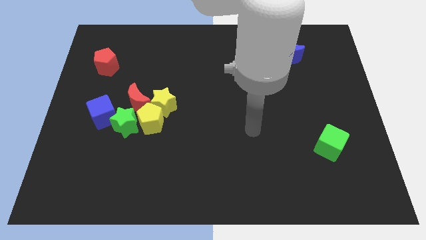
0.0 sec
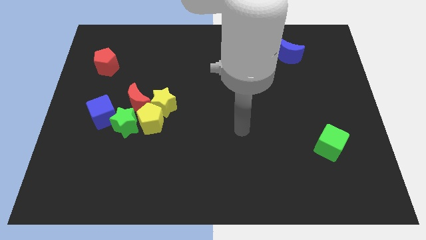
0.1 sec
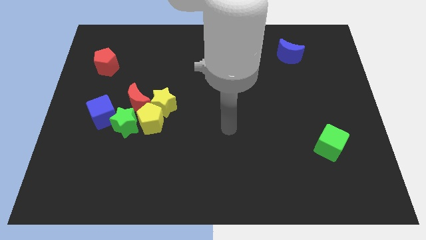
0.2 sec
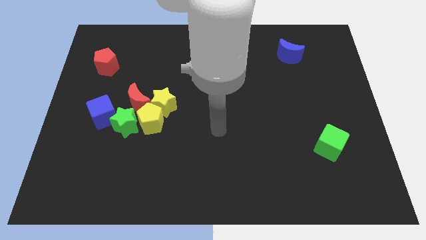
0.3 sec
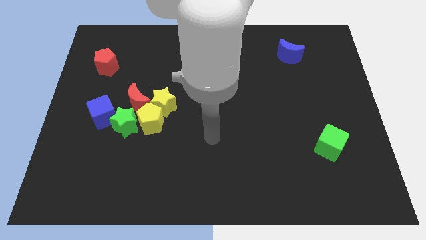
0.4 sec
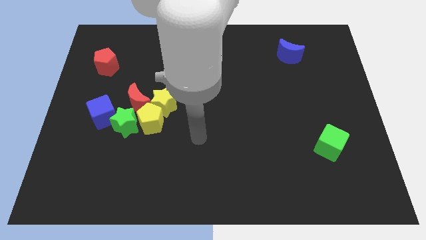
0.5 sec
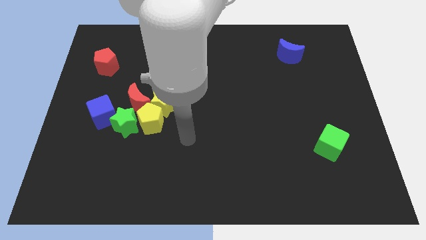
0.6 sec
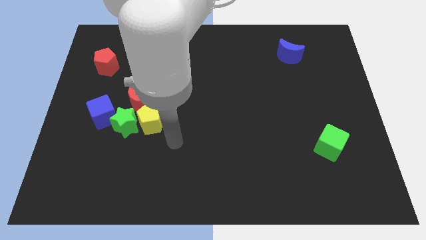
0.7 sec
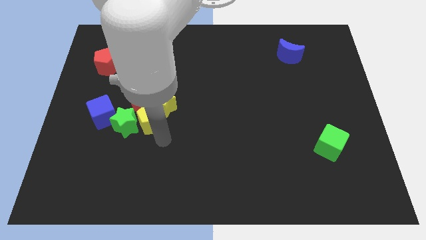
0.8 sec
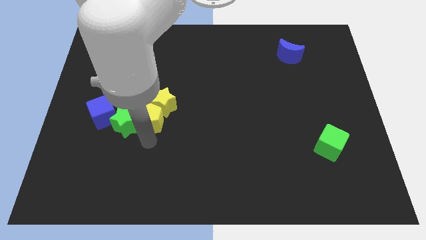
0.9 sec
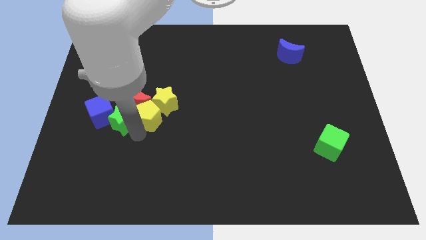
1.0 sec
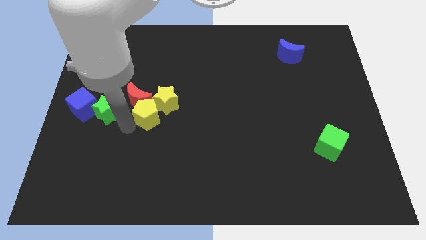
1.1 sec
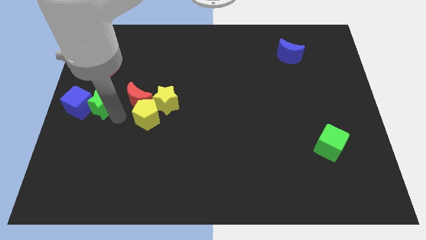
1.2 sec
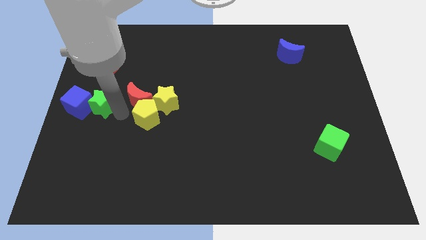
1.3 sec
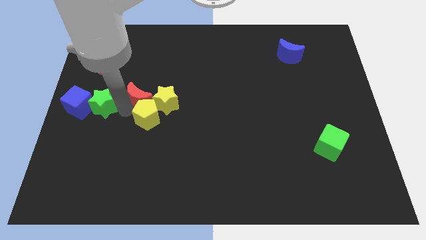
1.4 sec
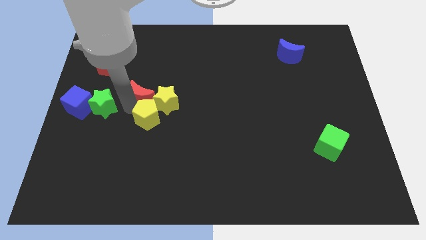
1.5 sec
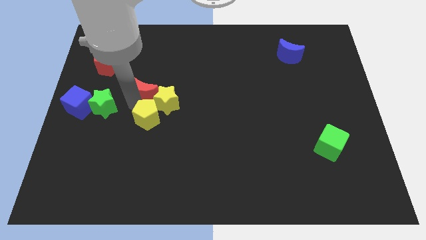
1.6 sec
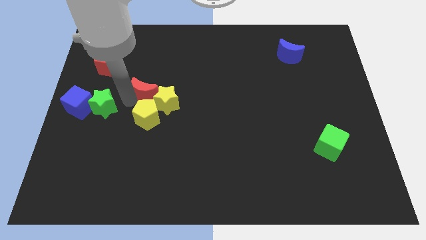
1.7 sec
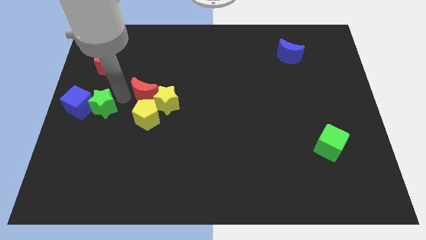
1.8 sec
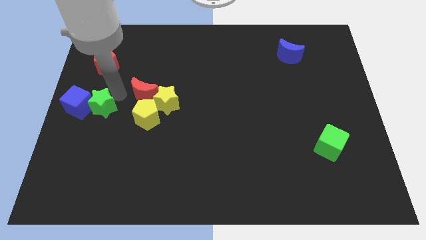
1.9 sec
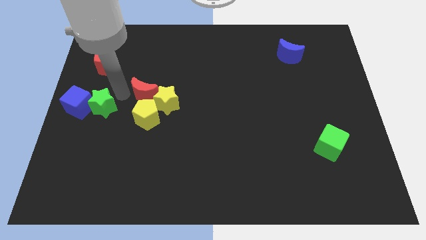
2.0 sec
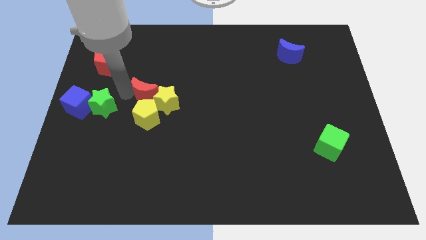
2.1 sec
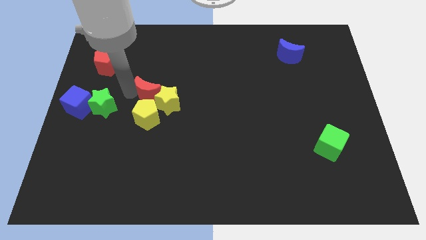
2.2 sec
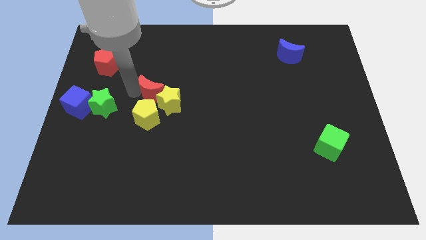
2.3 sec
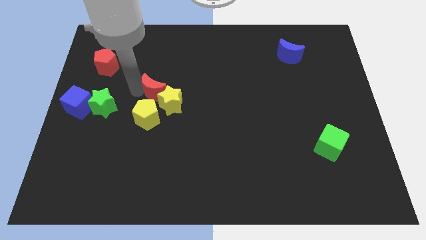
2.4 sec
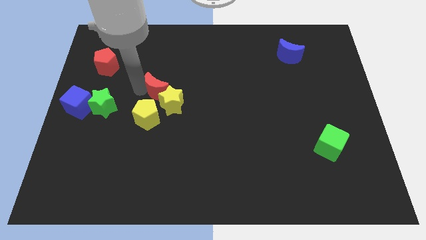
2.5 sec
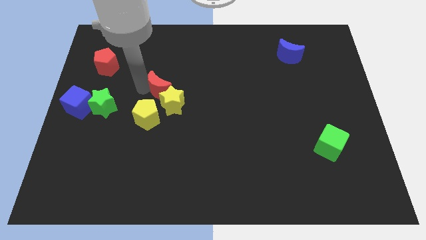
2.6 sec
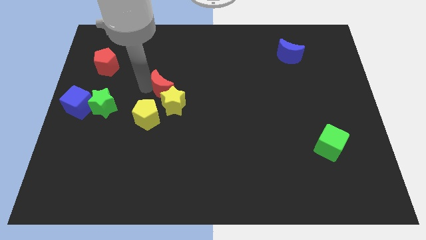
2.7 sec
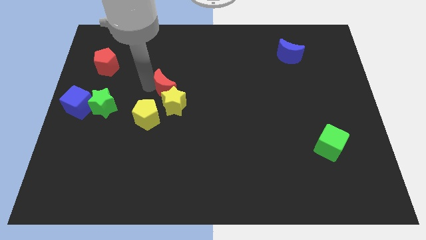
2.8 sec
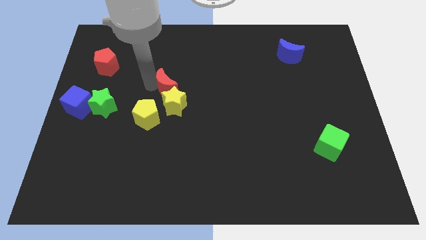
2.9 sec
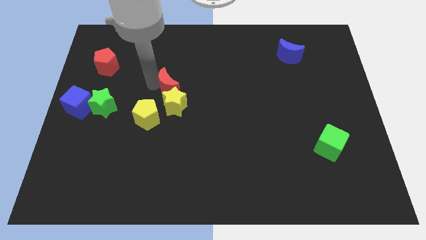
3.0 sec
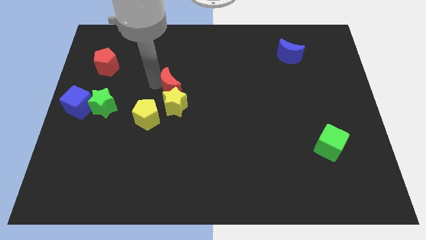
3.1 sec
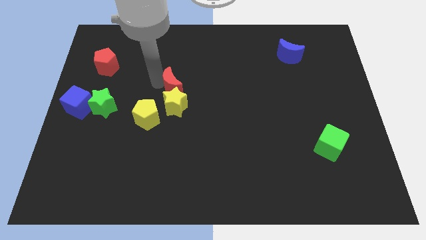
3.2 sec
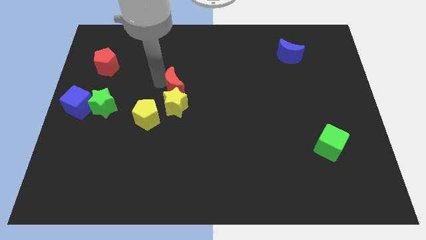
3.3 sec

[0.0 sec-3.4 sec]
move the red moon a little bit right

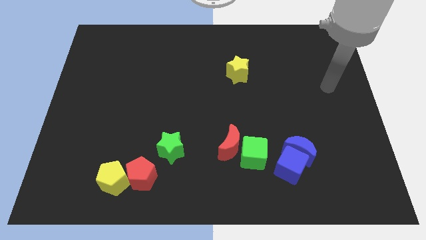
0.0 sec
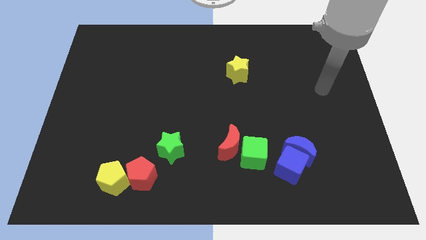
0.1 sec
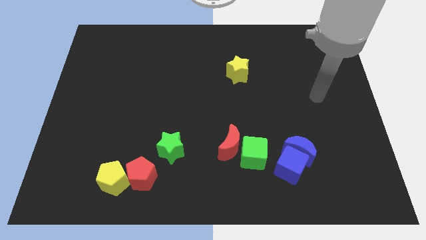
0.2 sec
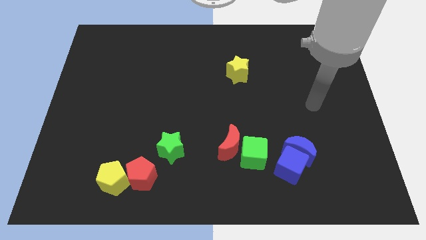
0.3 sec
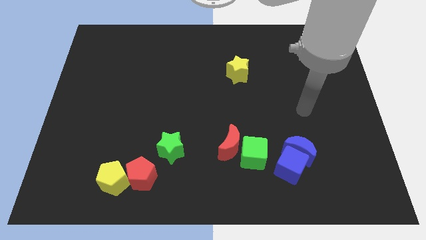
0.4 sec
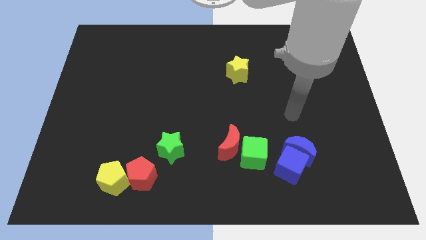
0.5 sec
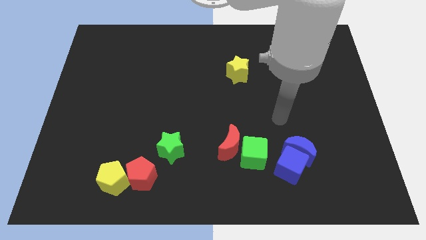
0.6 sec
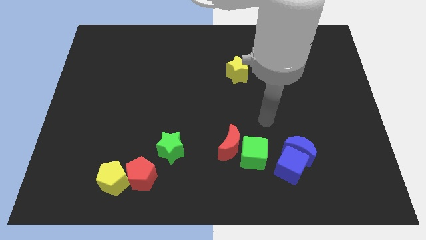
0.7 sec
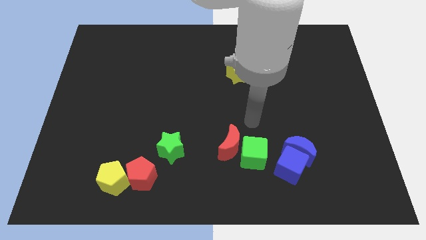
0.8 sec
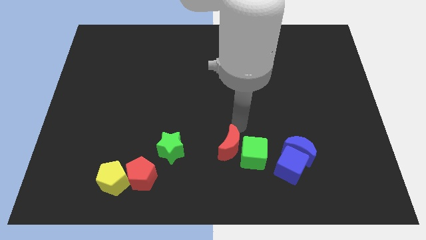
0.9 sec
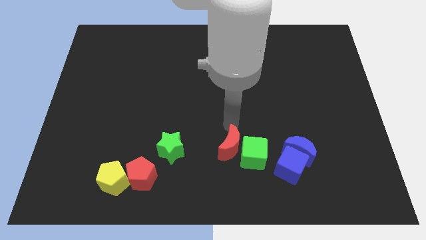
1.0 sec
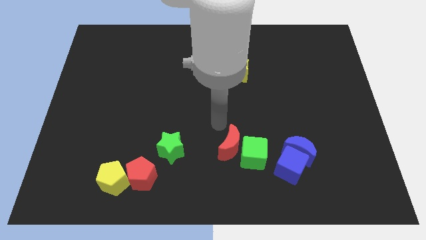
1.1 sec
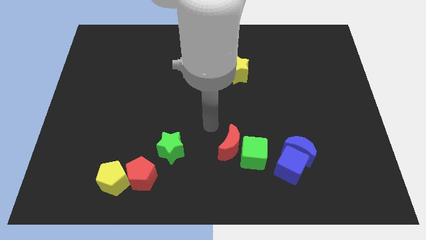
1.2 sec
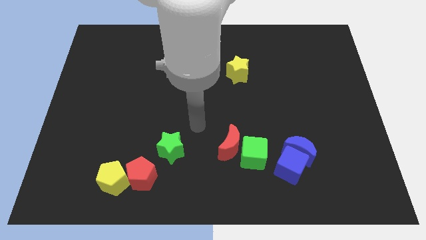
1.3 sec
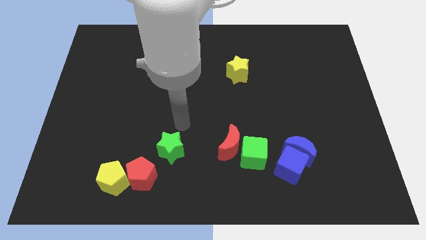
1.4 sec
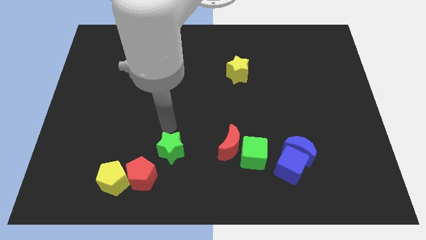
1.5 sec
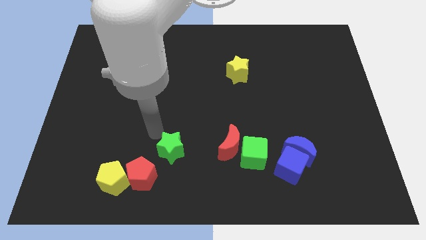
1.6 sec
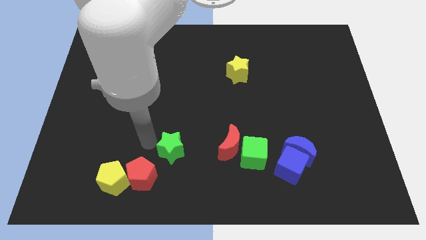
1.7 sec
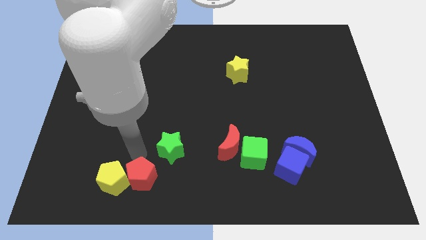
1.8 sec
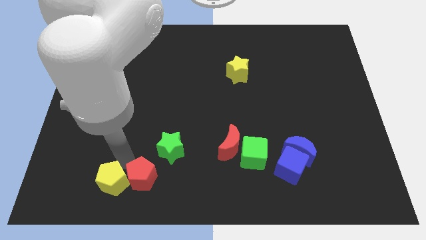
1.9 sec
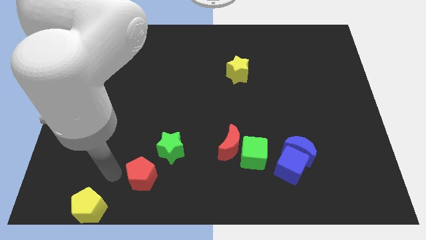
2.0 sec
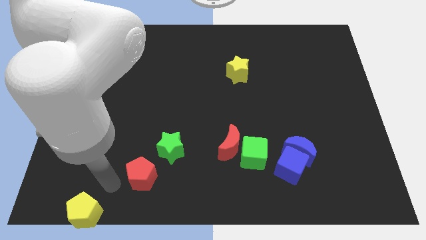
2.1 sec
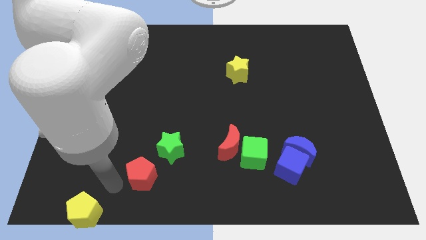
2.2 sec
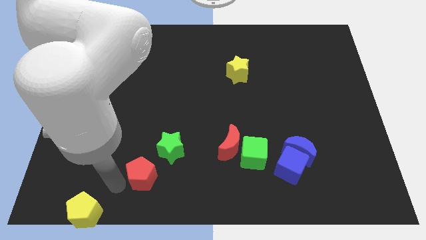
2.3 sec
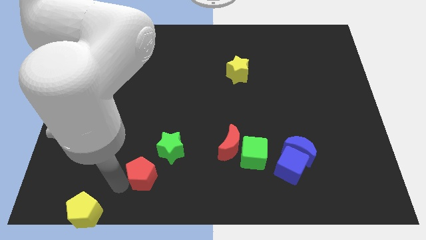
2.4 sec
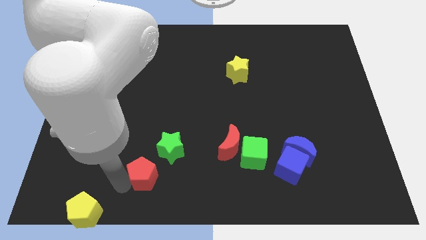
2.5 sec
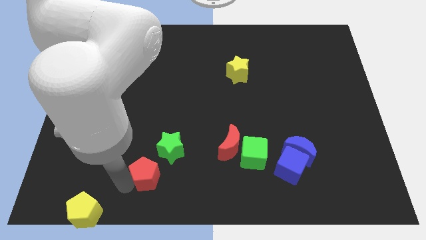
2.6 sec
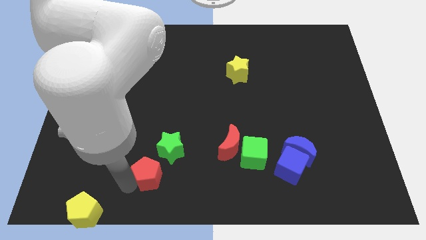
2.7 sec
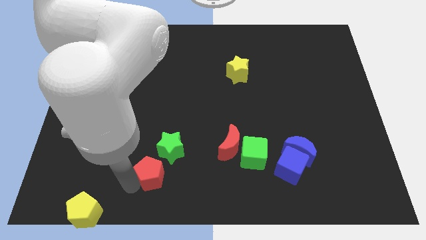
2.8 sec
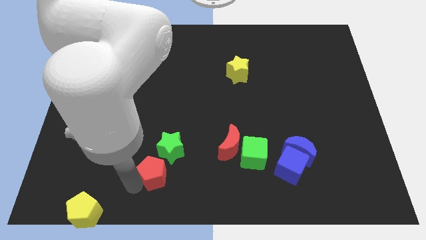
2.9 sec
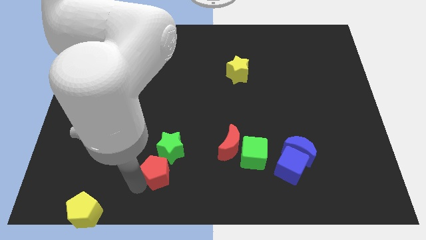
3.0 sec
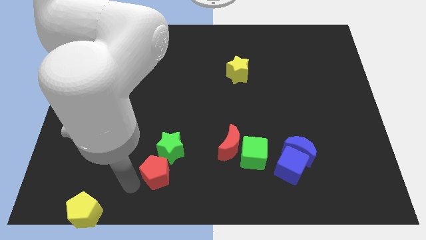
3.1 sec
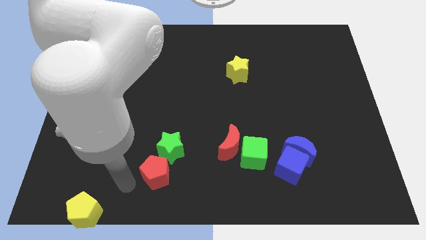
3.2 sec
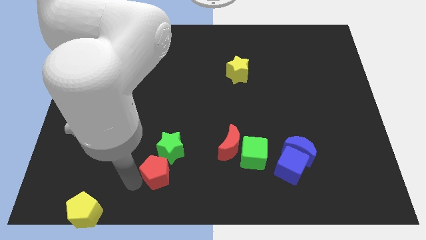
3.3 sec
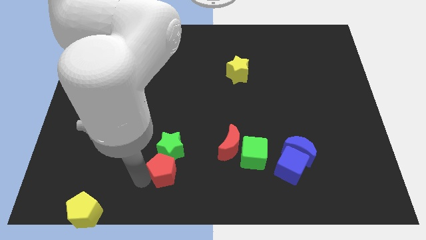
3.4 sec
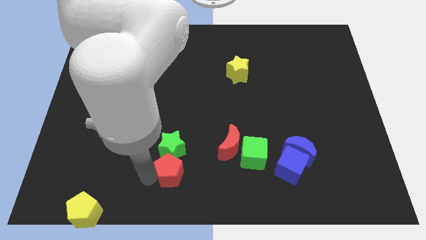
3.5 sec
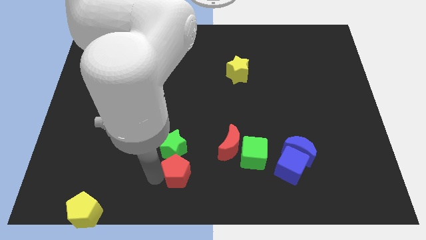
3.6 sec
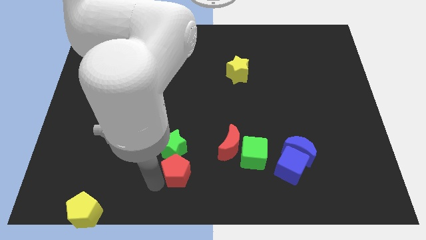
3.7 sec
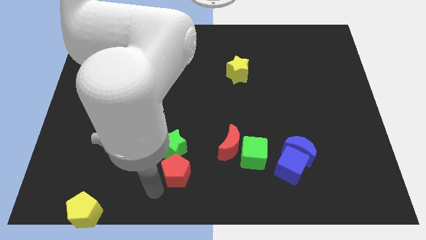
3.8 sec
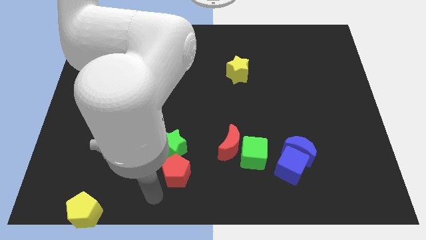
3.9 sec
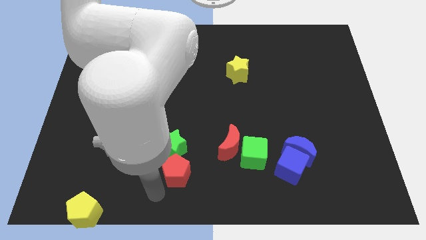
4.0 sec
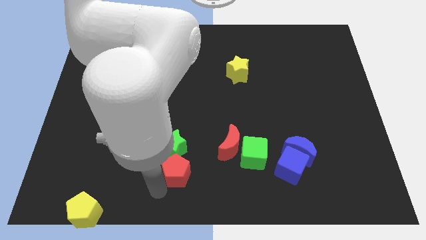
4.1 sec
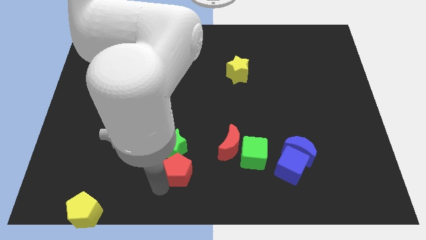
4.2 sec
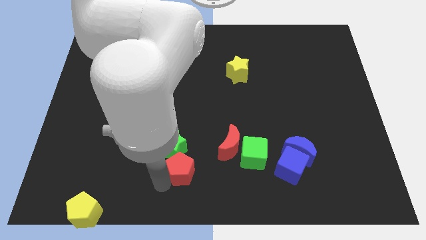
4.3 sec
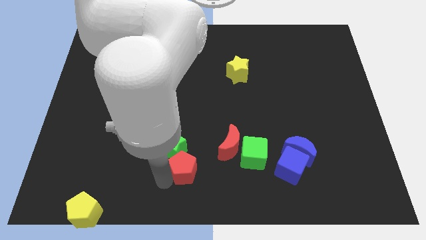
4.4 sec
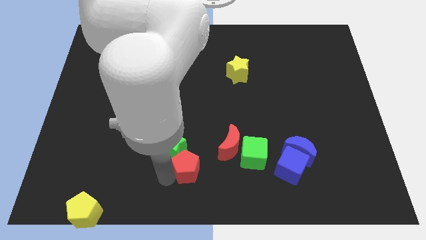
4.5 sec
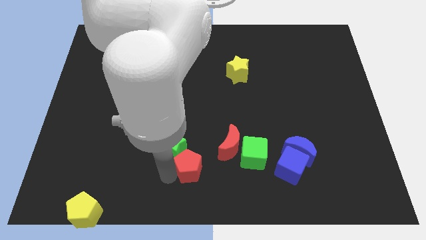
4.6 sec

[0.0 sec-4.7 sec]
push the red pentagon up and then right a little
